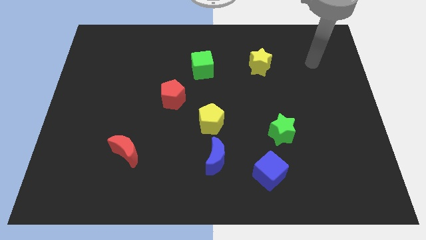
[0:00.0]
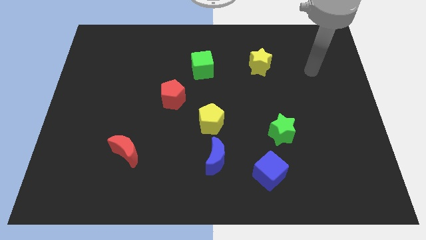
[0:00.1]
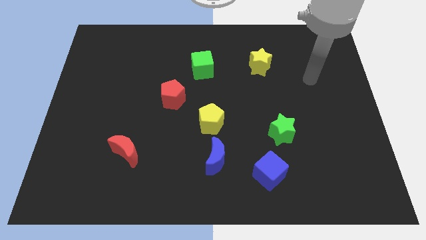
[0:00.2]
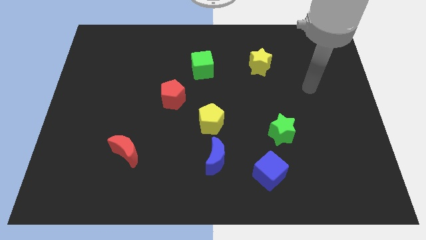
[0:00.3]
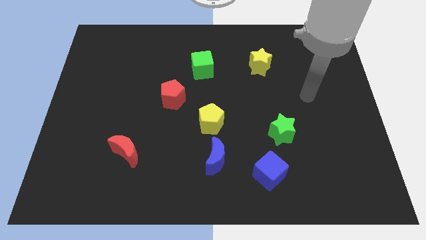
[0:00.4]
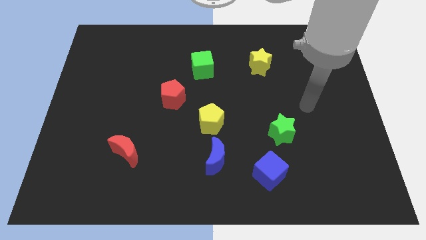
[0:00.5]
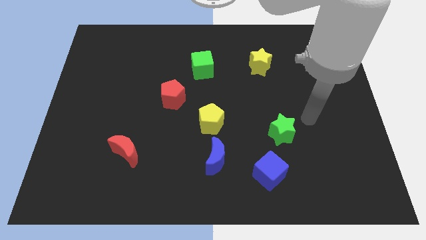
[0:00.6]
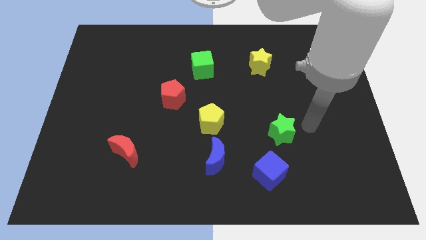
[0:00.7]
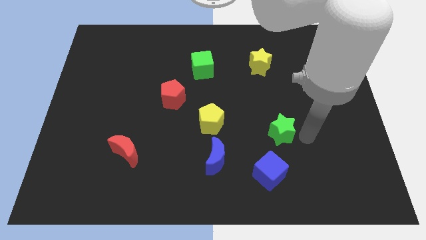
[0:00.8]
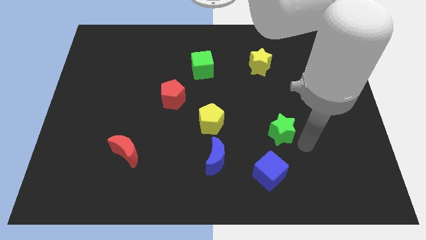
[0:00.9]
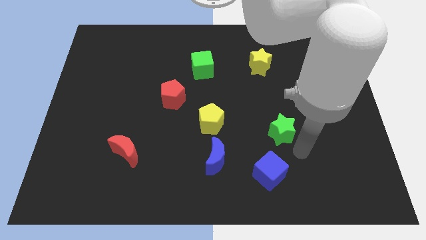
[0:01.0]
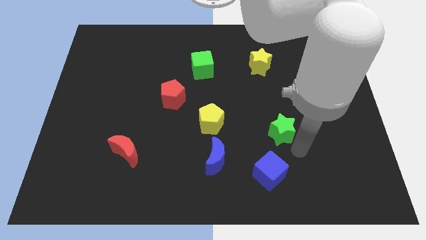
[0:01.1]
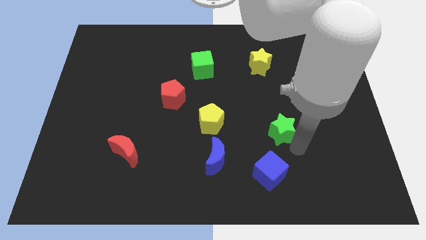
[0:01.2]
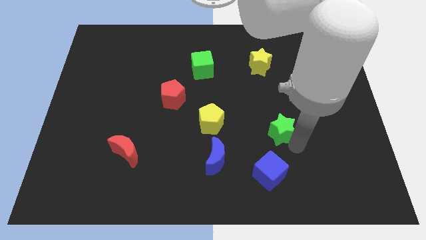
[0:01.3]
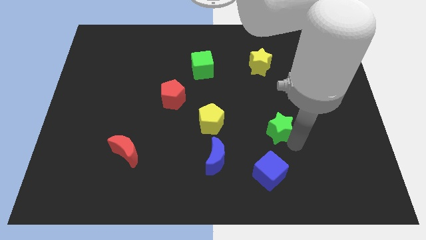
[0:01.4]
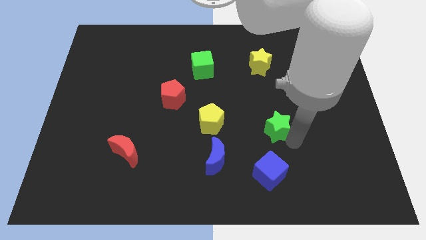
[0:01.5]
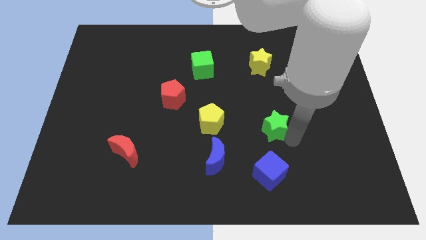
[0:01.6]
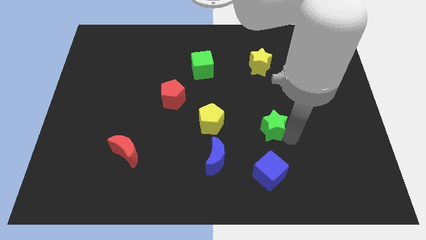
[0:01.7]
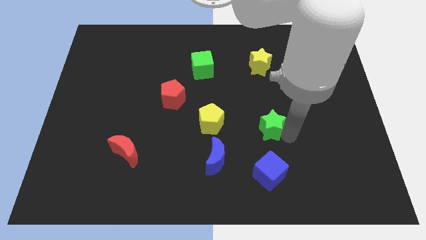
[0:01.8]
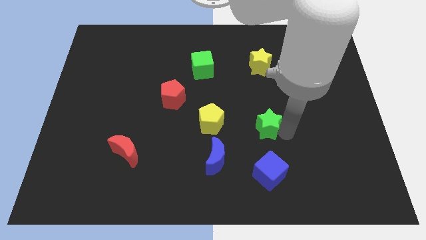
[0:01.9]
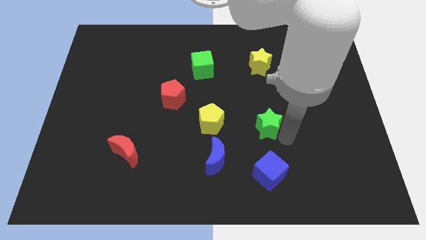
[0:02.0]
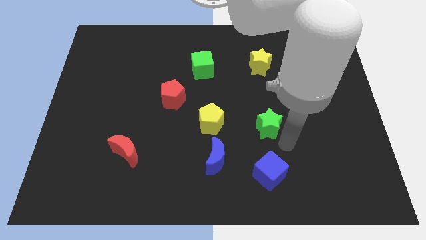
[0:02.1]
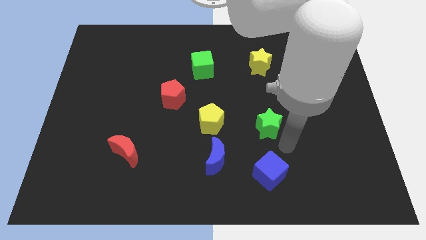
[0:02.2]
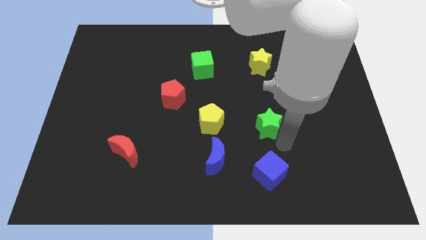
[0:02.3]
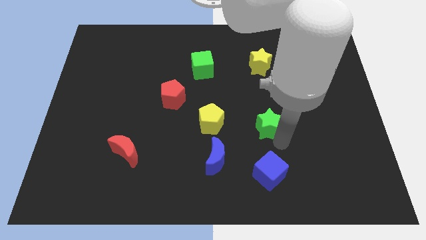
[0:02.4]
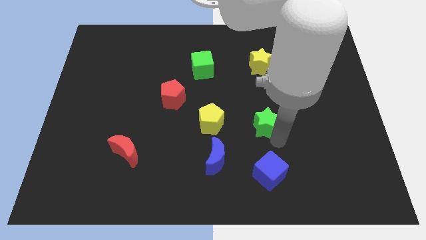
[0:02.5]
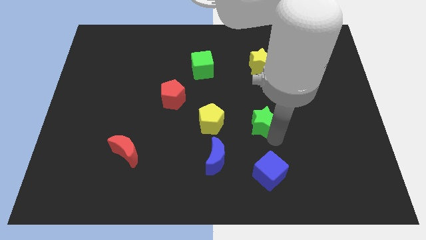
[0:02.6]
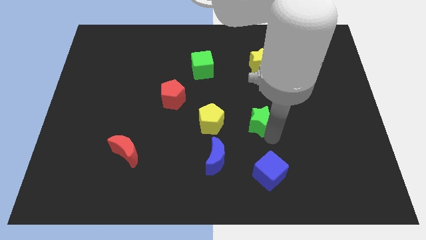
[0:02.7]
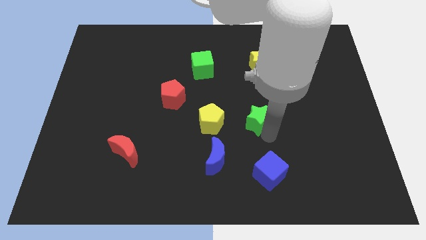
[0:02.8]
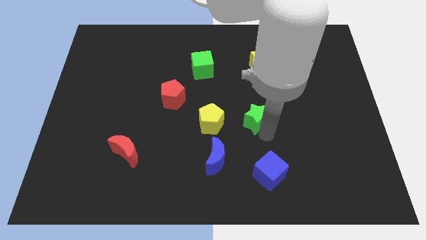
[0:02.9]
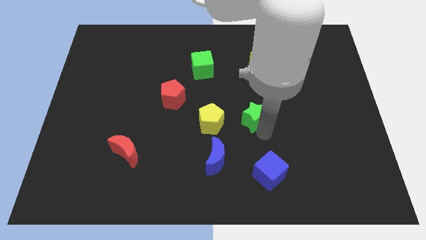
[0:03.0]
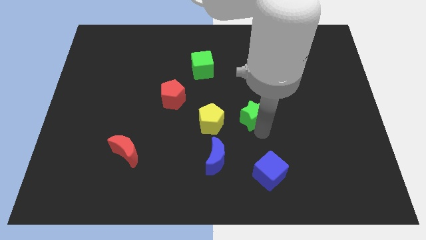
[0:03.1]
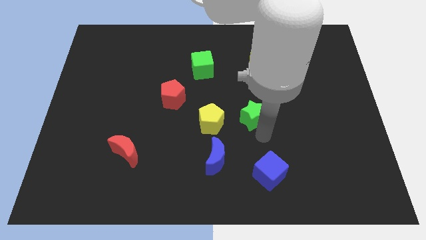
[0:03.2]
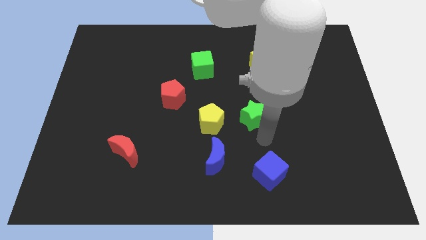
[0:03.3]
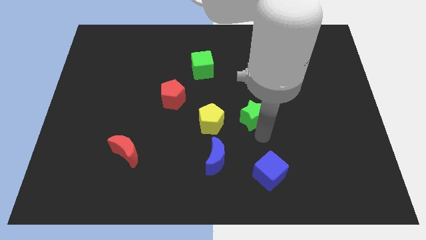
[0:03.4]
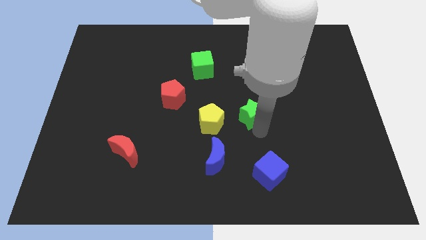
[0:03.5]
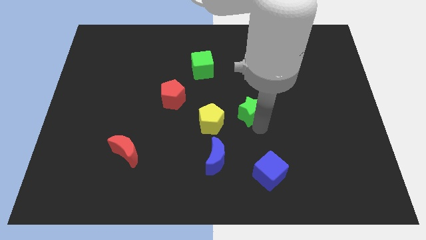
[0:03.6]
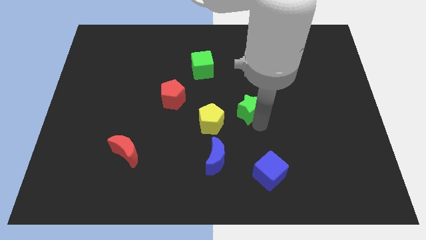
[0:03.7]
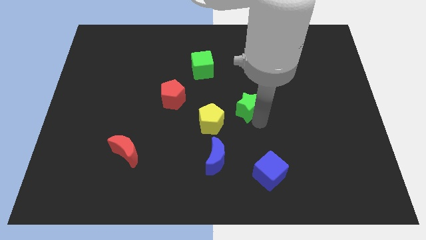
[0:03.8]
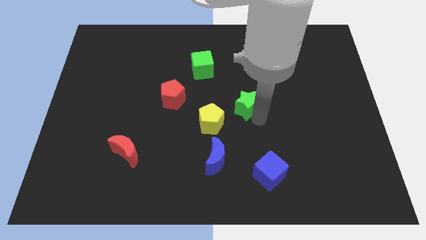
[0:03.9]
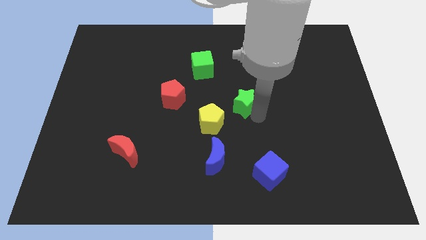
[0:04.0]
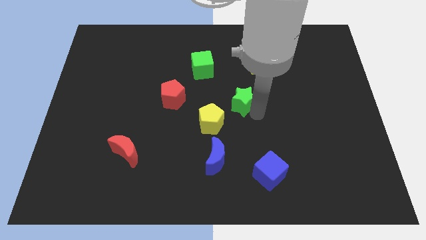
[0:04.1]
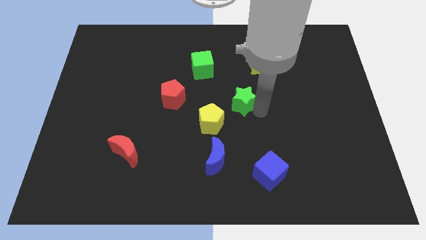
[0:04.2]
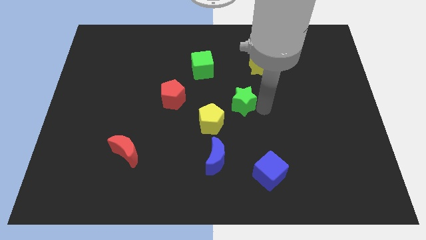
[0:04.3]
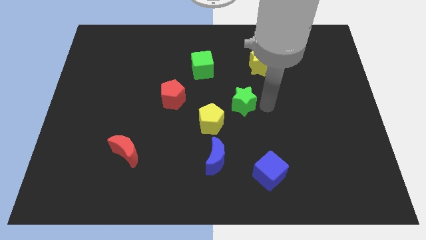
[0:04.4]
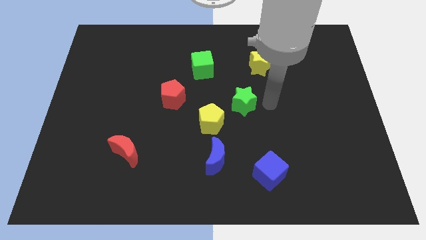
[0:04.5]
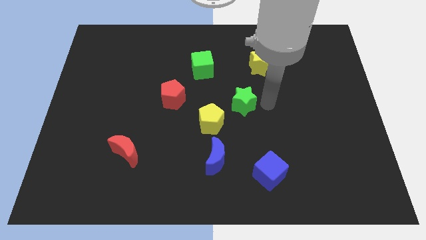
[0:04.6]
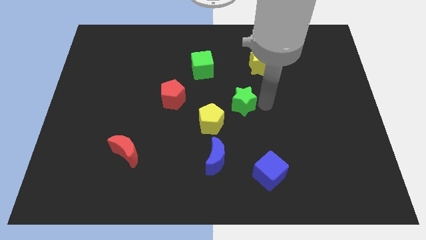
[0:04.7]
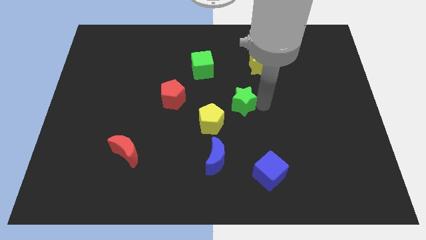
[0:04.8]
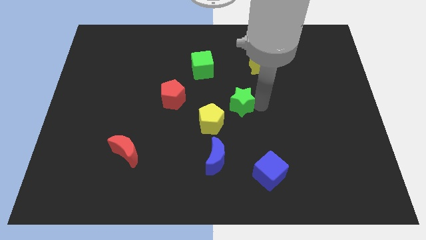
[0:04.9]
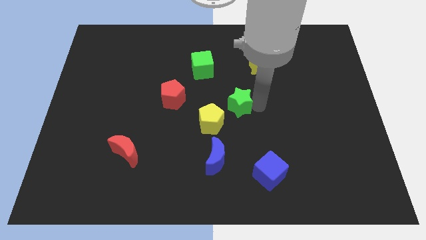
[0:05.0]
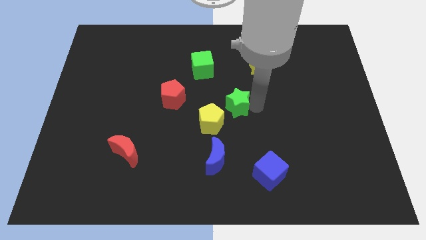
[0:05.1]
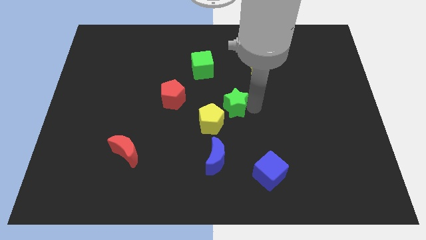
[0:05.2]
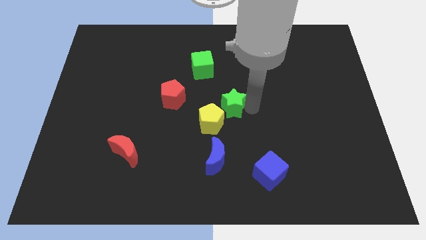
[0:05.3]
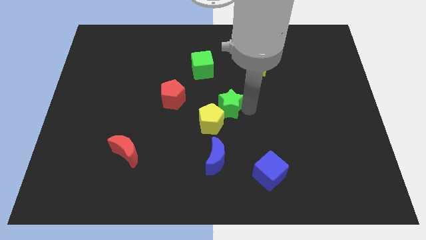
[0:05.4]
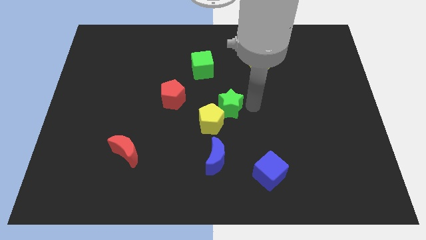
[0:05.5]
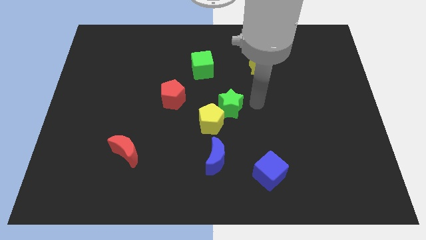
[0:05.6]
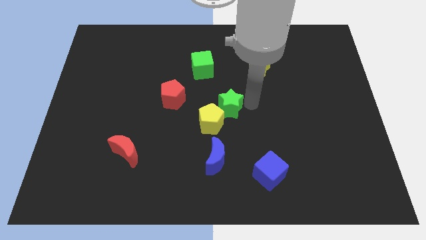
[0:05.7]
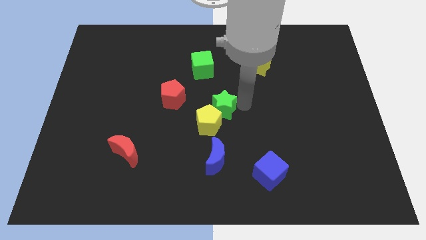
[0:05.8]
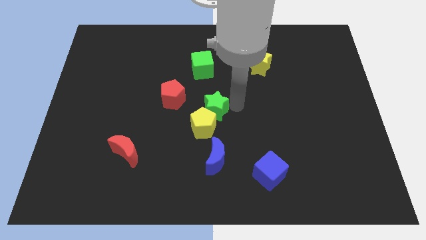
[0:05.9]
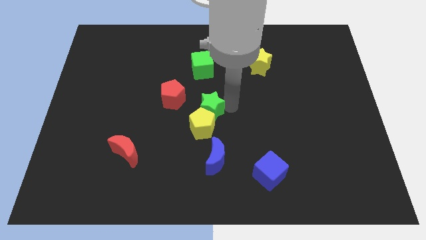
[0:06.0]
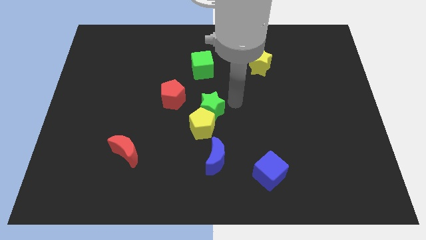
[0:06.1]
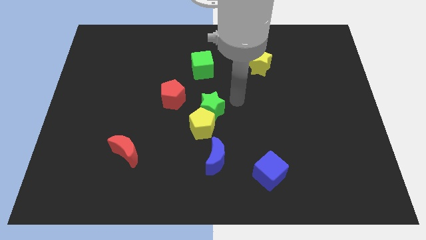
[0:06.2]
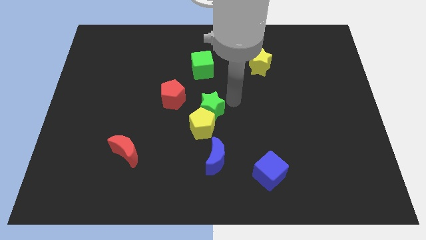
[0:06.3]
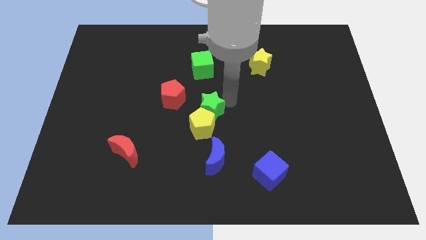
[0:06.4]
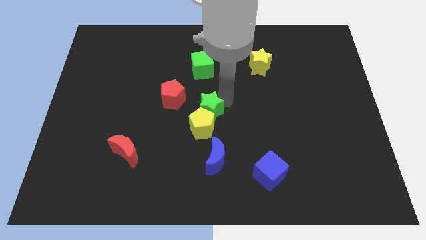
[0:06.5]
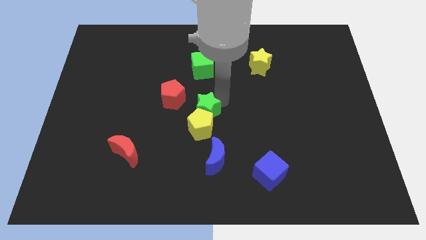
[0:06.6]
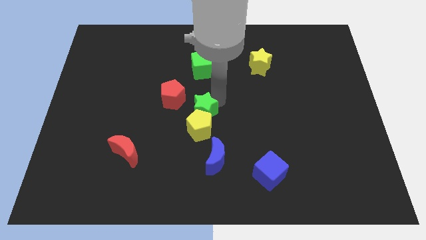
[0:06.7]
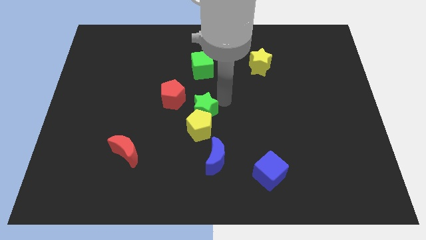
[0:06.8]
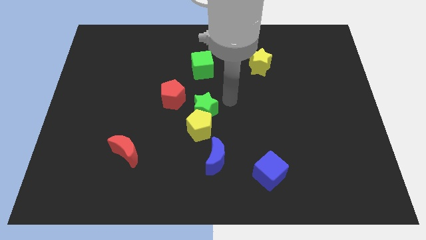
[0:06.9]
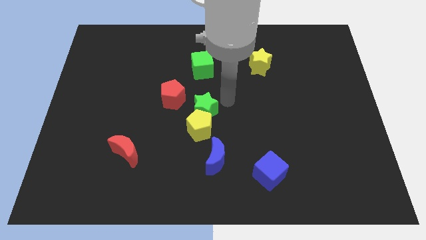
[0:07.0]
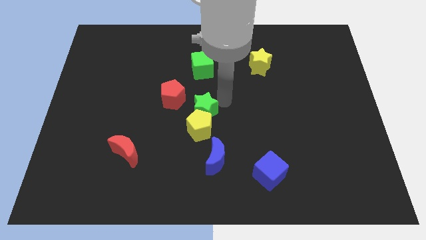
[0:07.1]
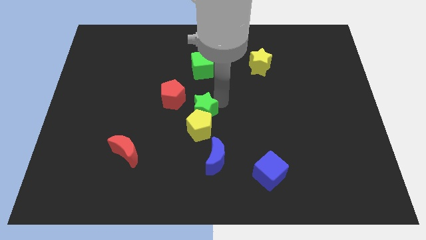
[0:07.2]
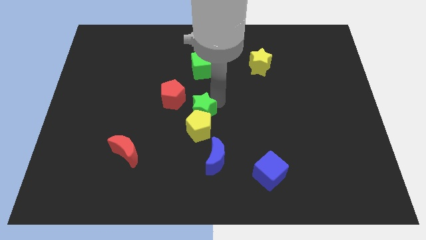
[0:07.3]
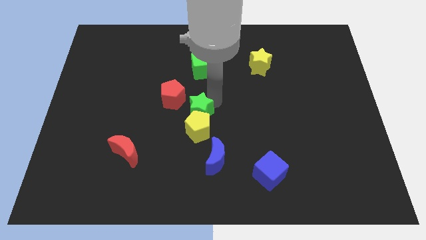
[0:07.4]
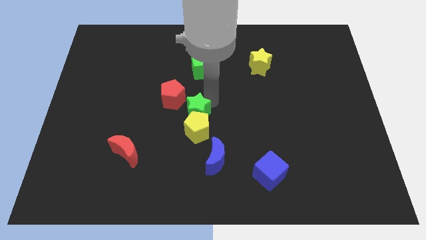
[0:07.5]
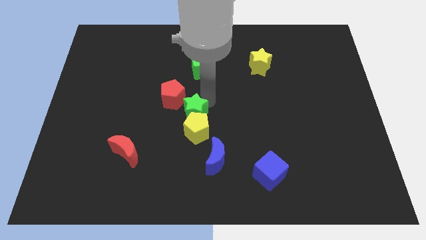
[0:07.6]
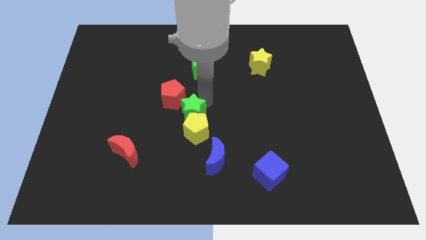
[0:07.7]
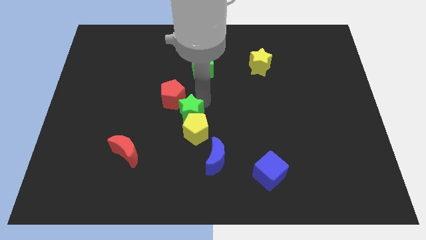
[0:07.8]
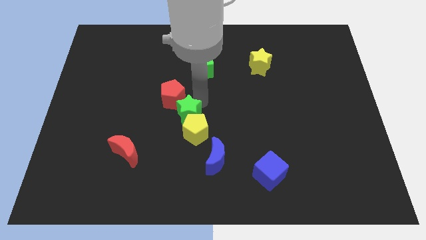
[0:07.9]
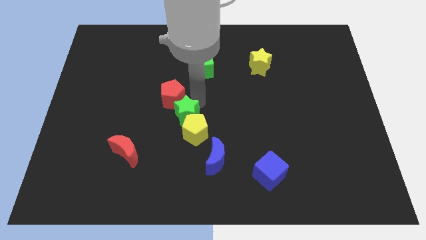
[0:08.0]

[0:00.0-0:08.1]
push the green star to the left

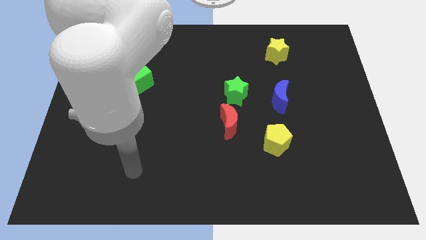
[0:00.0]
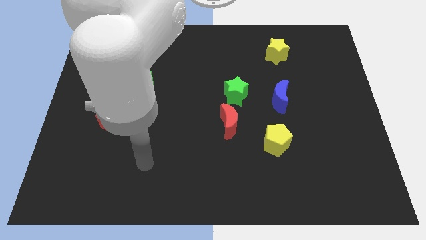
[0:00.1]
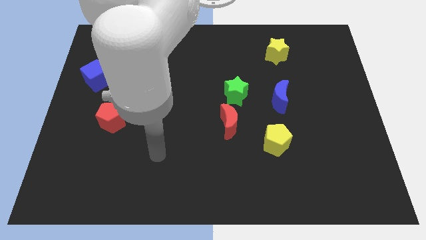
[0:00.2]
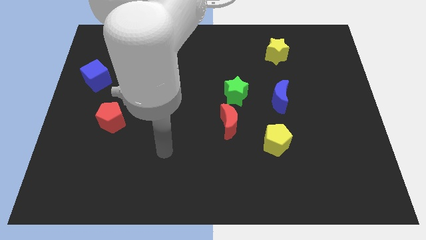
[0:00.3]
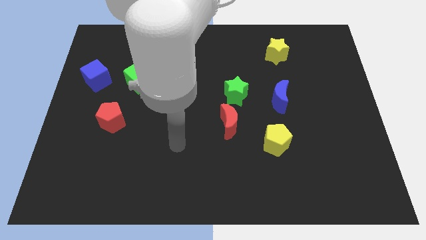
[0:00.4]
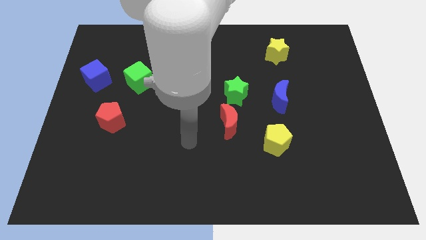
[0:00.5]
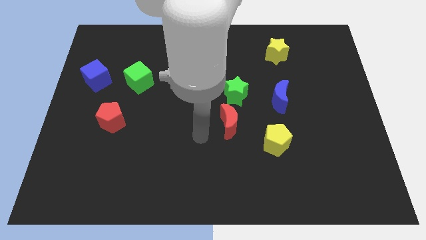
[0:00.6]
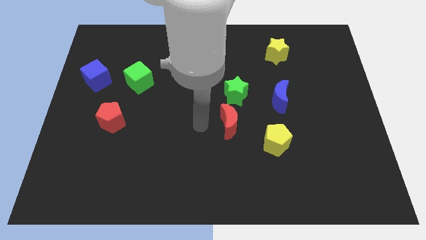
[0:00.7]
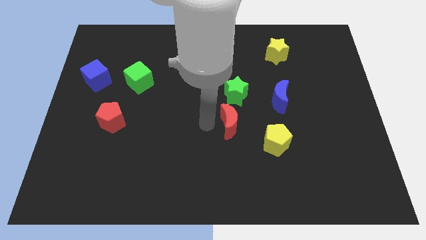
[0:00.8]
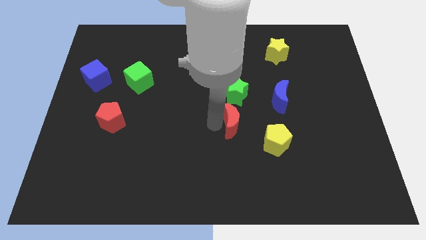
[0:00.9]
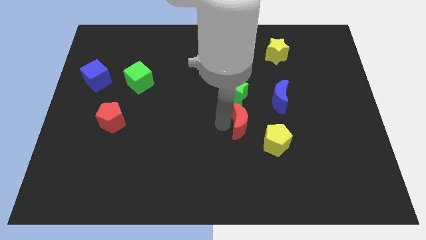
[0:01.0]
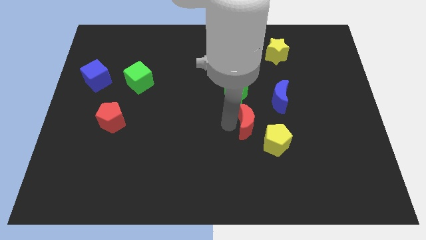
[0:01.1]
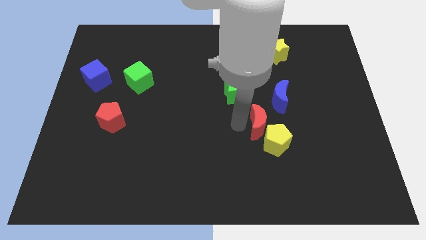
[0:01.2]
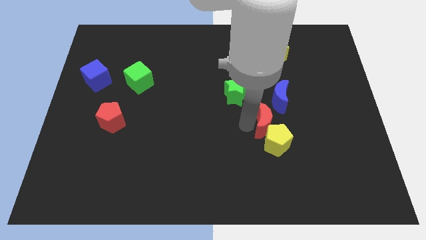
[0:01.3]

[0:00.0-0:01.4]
slide the red moon slightly right
